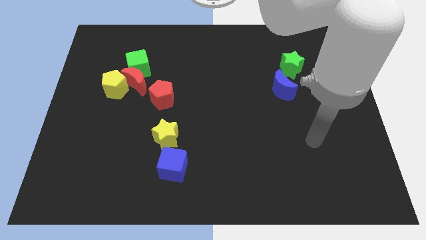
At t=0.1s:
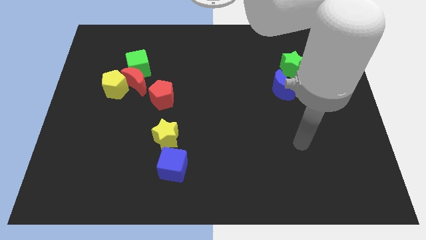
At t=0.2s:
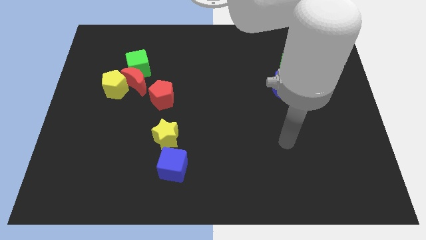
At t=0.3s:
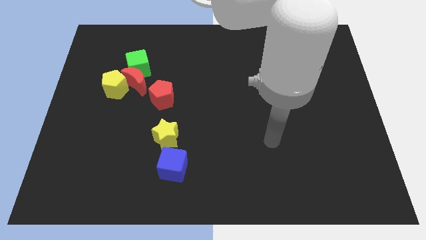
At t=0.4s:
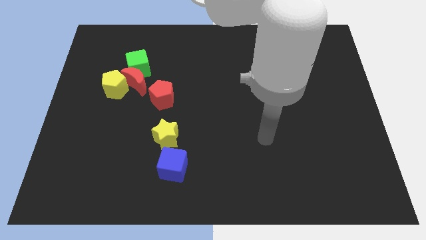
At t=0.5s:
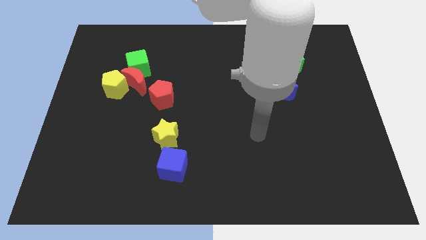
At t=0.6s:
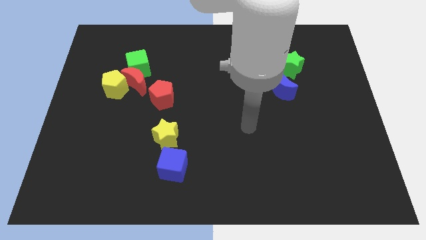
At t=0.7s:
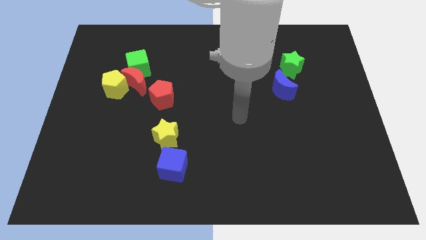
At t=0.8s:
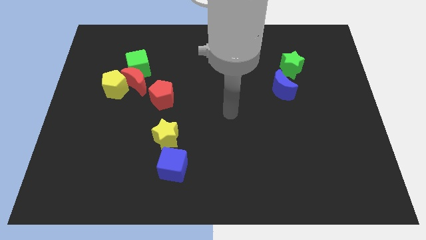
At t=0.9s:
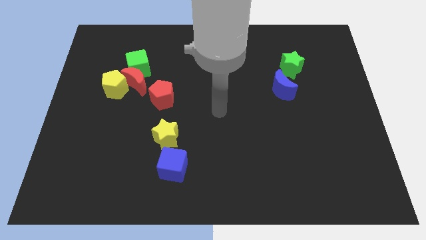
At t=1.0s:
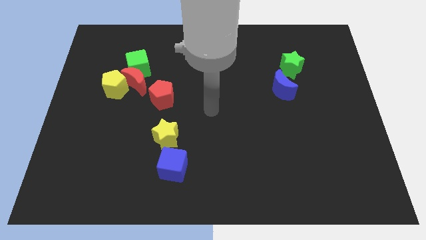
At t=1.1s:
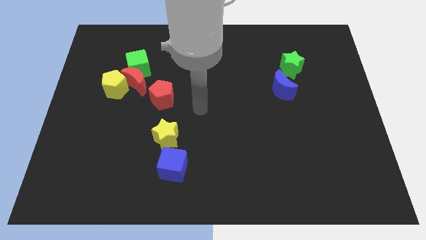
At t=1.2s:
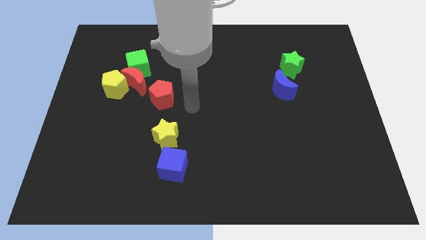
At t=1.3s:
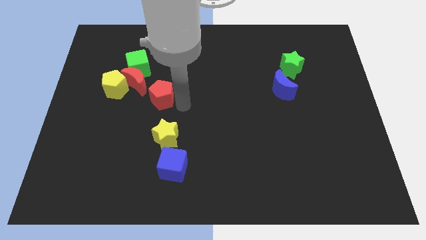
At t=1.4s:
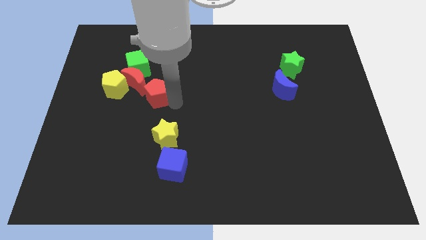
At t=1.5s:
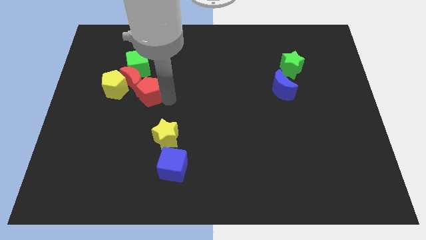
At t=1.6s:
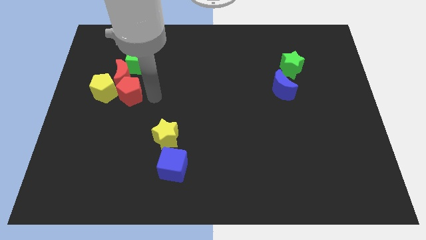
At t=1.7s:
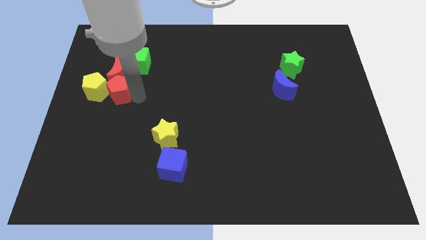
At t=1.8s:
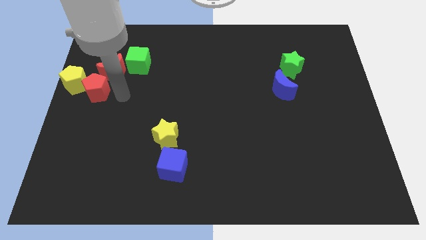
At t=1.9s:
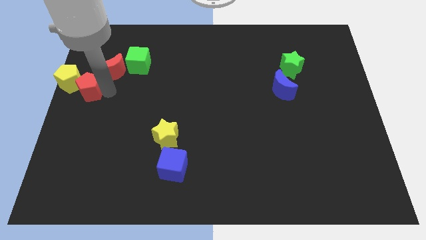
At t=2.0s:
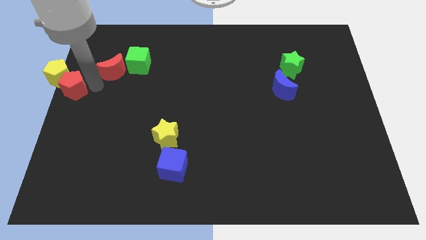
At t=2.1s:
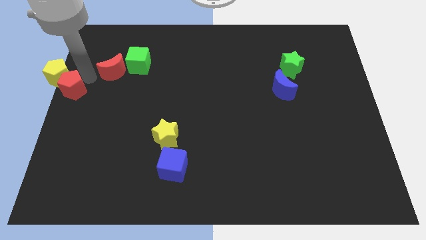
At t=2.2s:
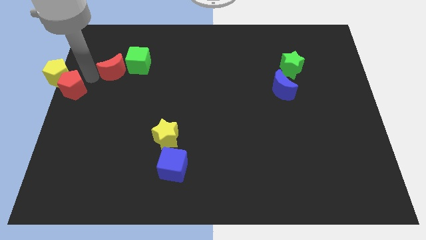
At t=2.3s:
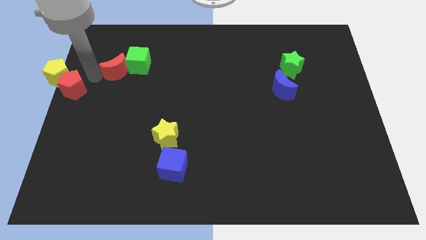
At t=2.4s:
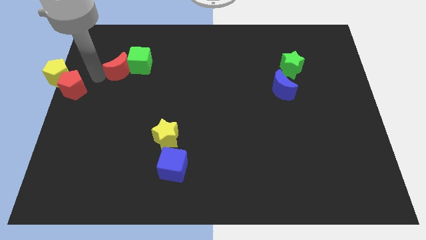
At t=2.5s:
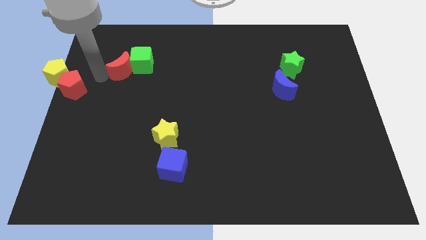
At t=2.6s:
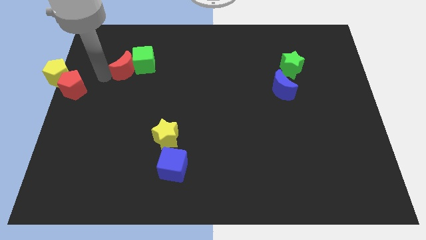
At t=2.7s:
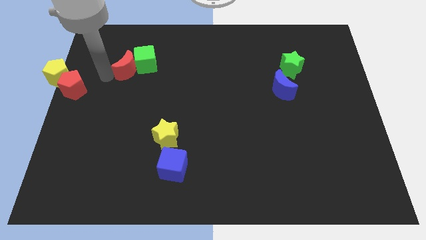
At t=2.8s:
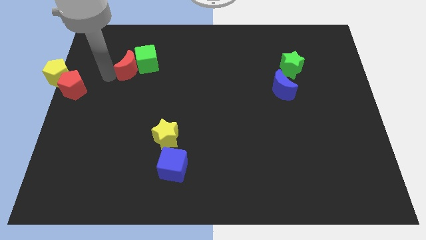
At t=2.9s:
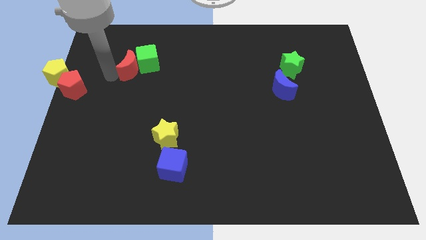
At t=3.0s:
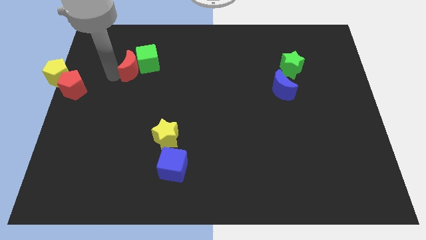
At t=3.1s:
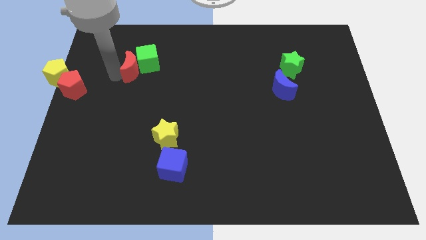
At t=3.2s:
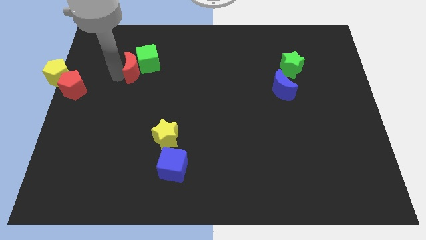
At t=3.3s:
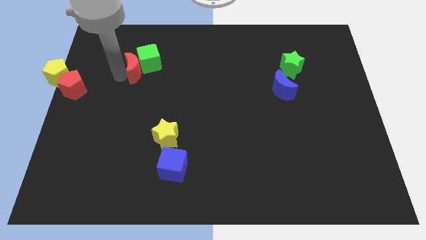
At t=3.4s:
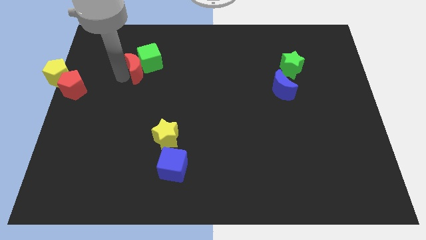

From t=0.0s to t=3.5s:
move the red moon away from the green cube, yellow pentagon, and red pentagon

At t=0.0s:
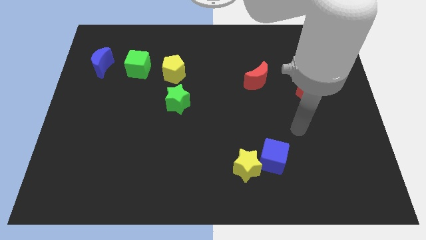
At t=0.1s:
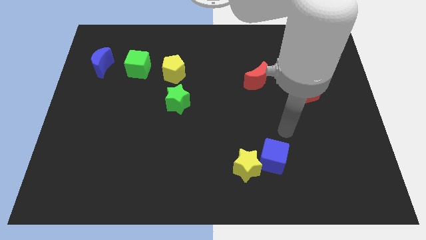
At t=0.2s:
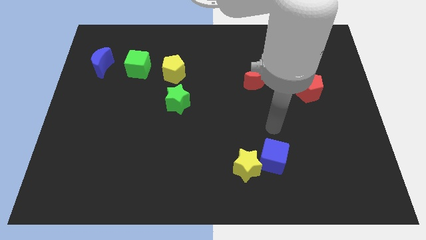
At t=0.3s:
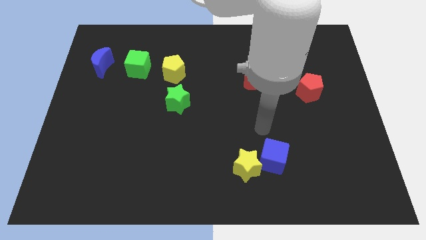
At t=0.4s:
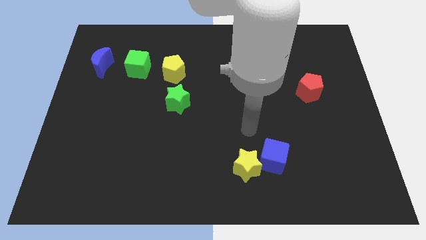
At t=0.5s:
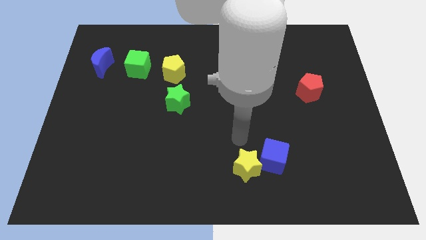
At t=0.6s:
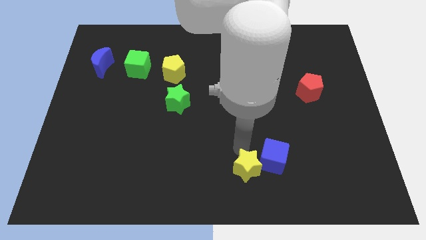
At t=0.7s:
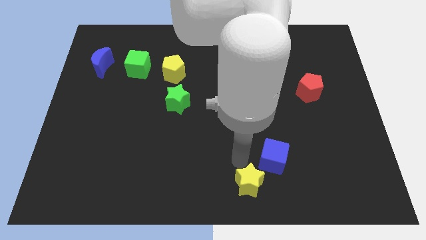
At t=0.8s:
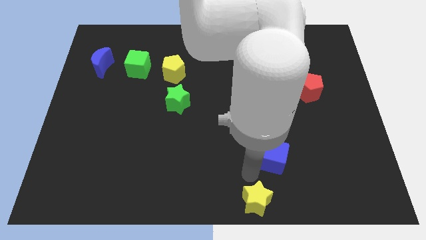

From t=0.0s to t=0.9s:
pull the blue cube apart from the yellow star

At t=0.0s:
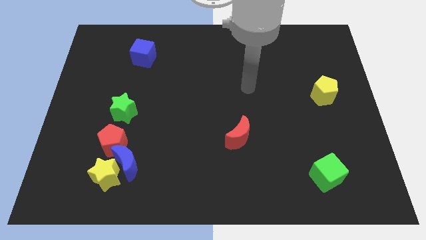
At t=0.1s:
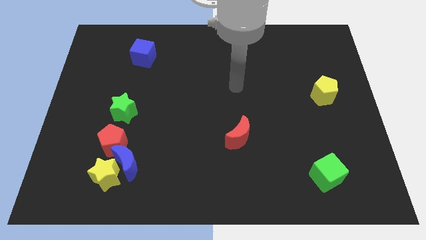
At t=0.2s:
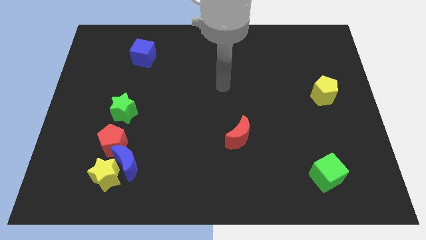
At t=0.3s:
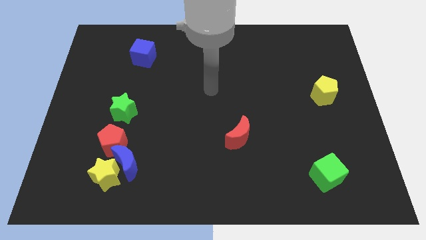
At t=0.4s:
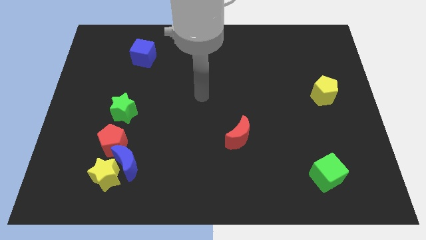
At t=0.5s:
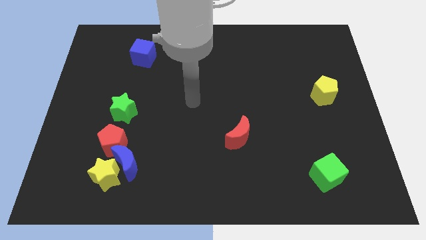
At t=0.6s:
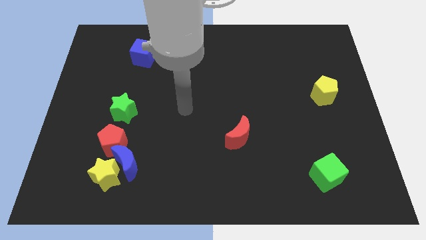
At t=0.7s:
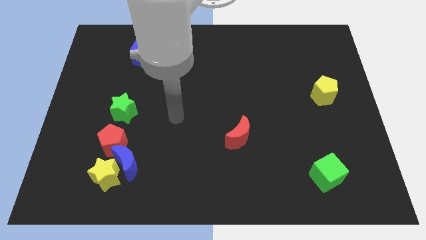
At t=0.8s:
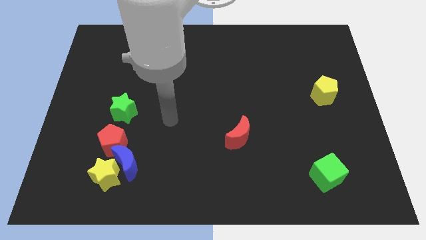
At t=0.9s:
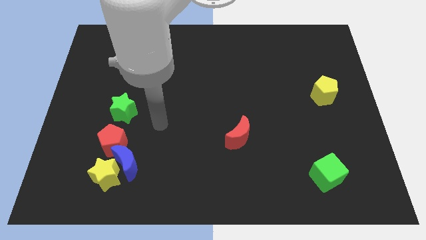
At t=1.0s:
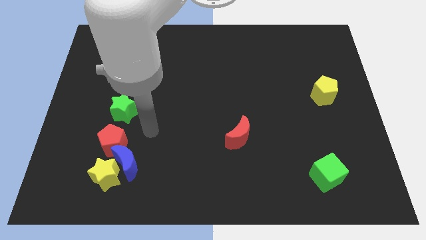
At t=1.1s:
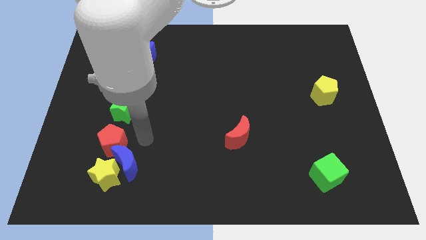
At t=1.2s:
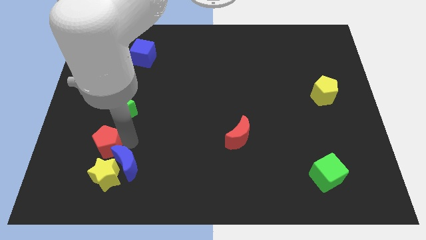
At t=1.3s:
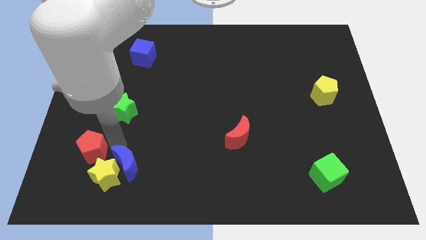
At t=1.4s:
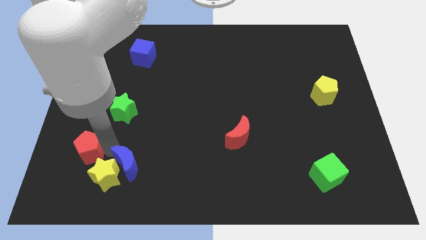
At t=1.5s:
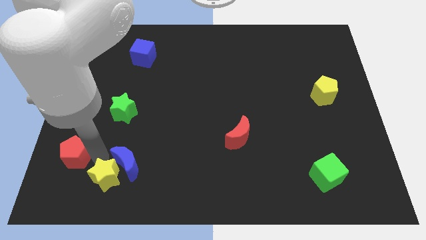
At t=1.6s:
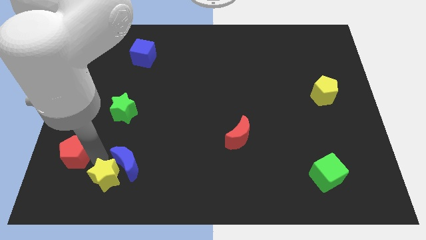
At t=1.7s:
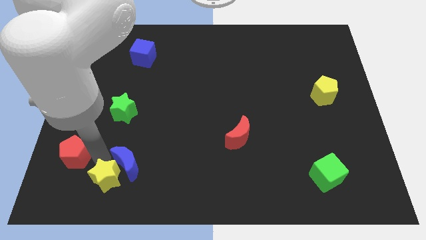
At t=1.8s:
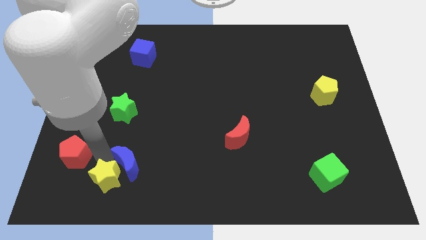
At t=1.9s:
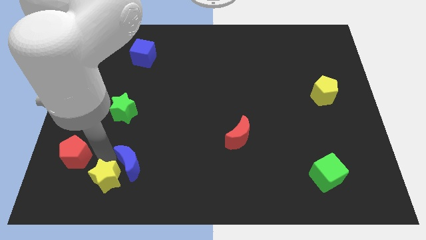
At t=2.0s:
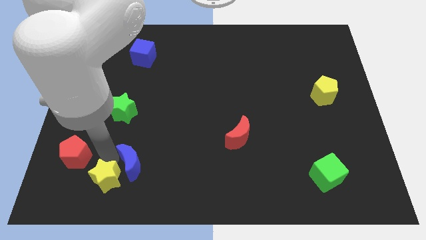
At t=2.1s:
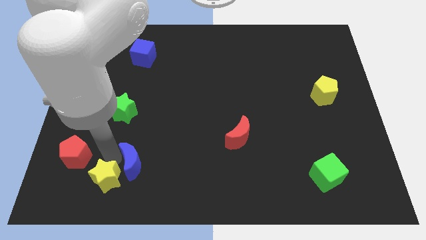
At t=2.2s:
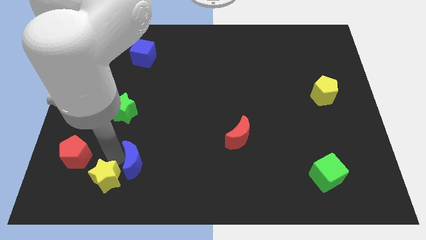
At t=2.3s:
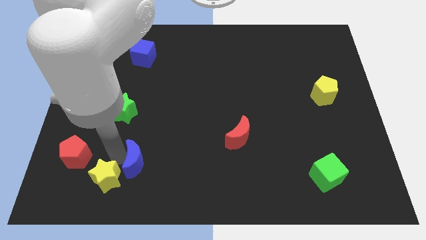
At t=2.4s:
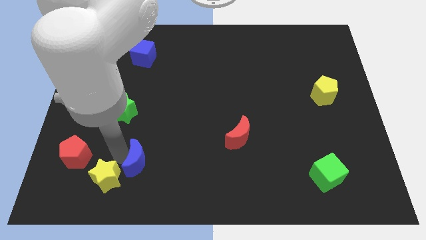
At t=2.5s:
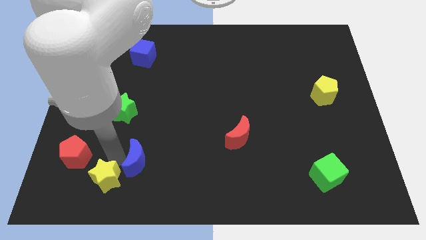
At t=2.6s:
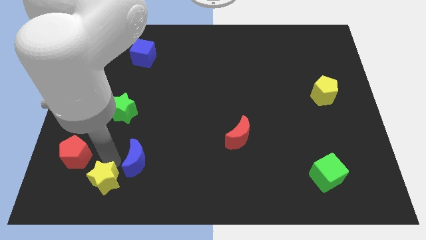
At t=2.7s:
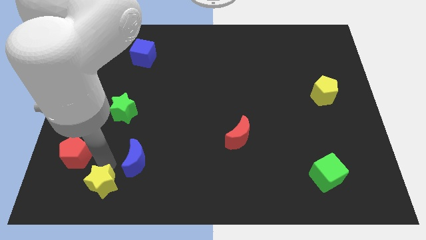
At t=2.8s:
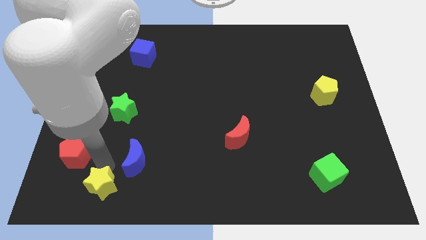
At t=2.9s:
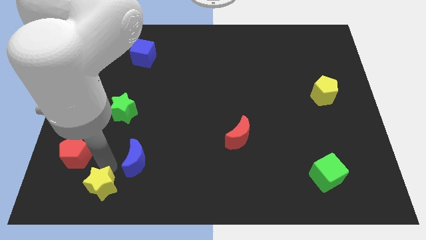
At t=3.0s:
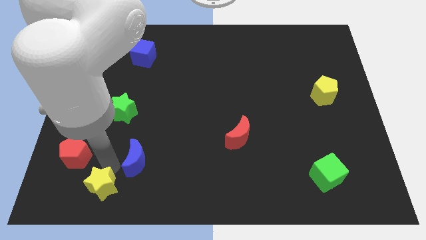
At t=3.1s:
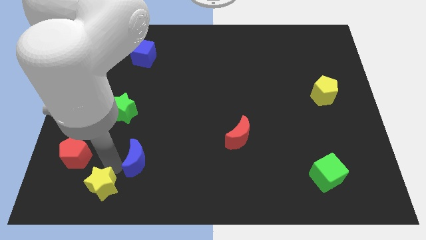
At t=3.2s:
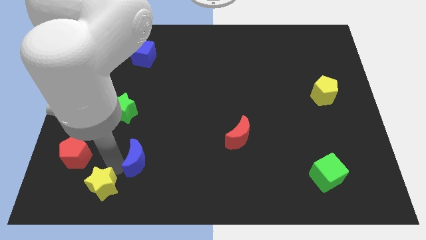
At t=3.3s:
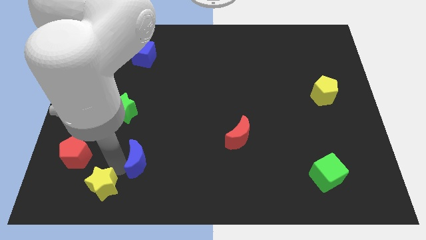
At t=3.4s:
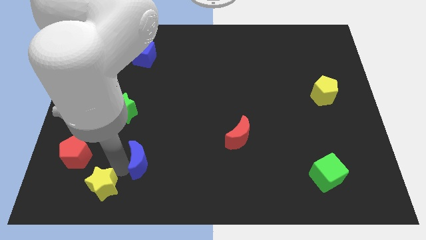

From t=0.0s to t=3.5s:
pull the blue moon apart from the yellow star and red pentagon

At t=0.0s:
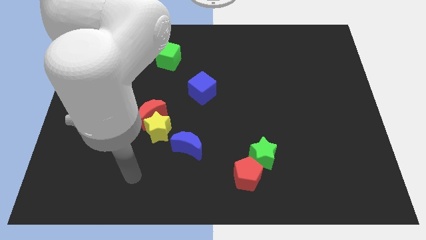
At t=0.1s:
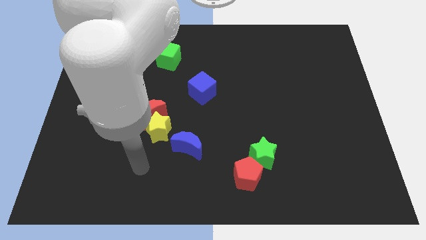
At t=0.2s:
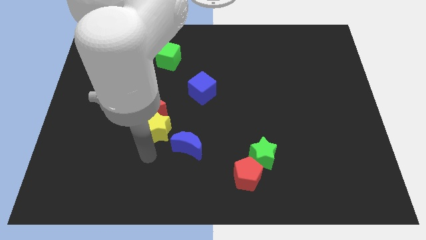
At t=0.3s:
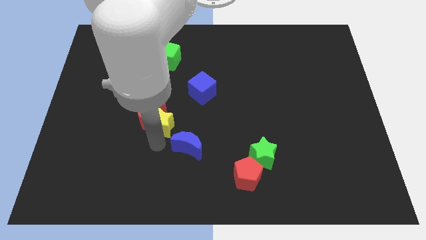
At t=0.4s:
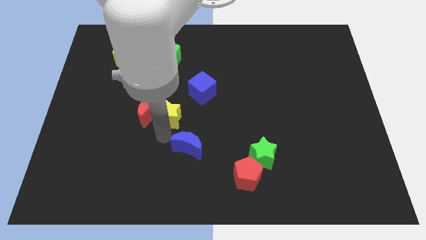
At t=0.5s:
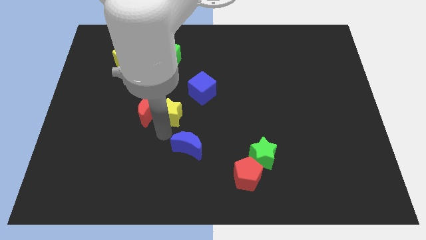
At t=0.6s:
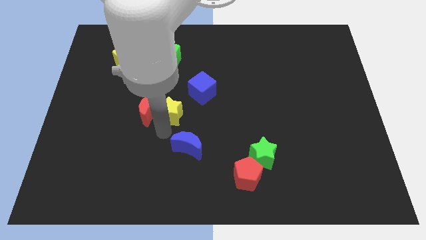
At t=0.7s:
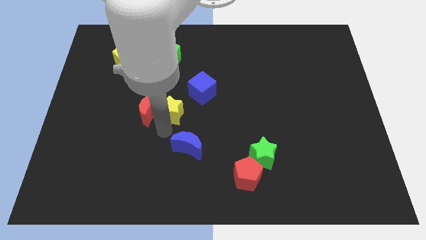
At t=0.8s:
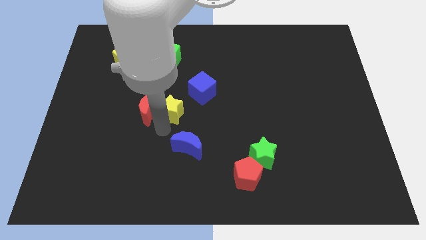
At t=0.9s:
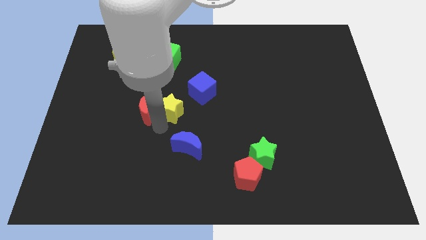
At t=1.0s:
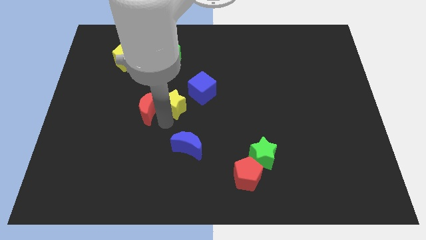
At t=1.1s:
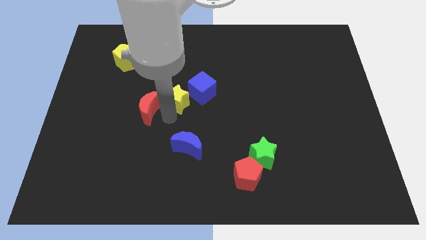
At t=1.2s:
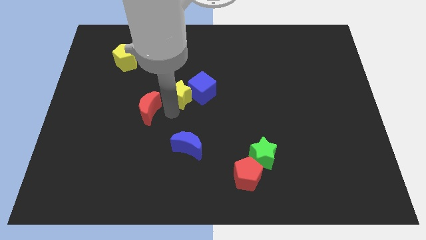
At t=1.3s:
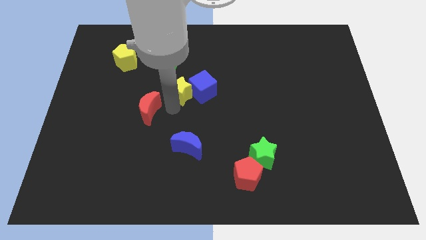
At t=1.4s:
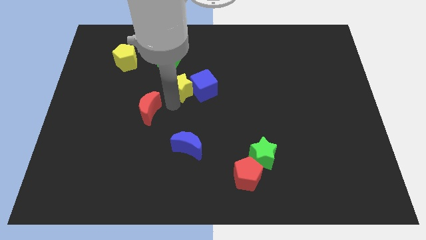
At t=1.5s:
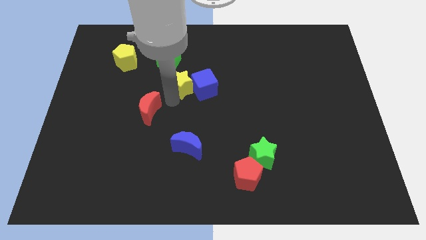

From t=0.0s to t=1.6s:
pull the red moon apart from the yellow star
